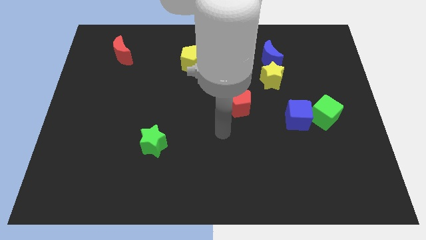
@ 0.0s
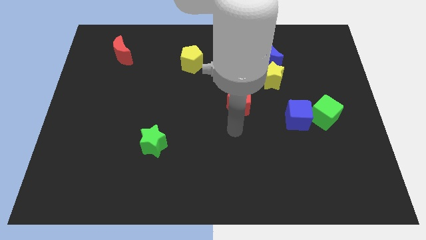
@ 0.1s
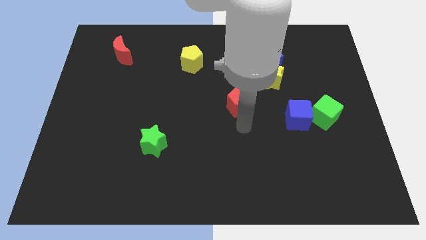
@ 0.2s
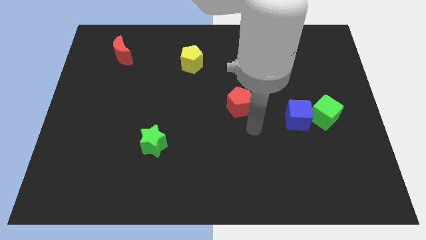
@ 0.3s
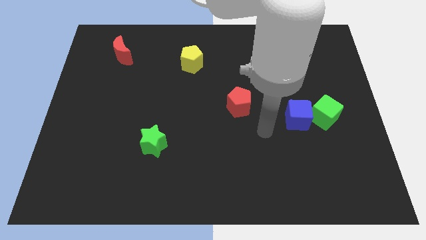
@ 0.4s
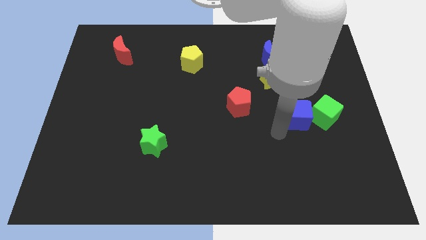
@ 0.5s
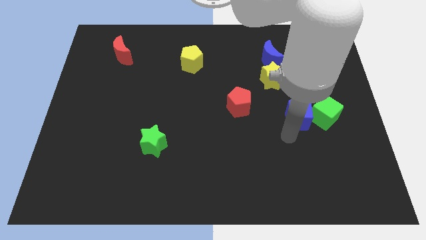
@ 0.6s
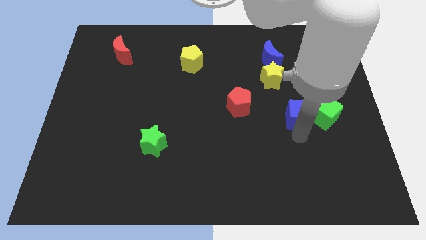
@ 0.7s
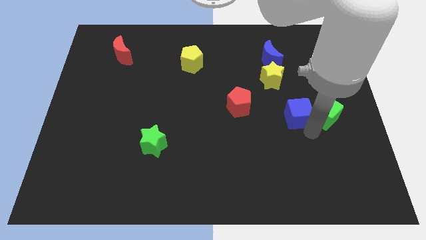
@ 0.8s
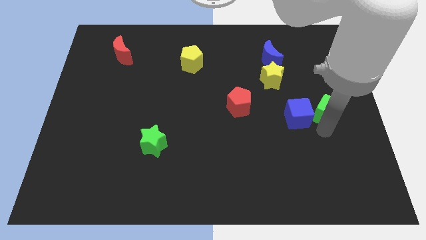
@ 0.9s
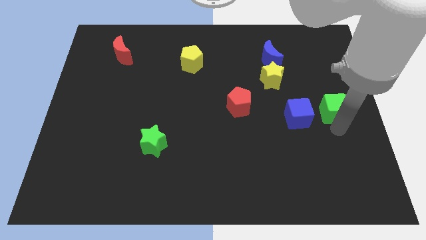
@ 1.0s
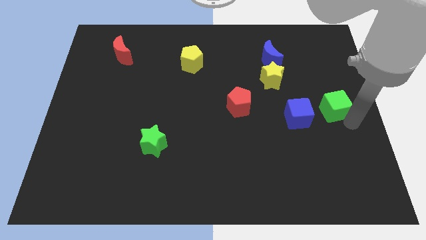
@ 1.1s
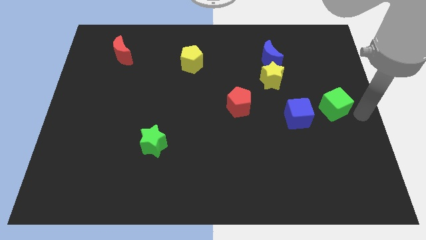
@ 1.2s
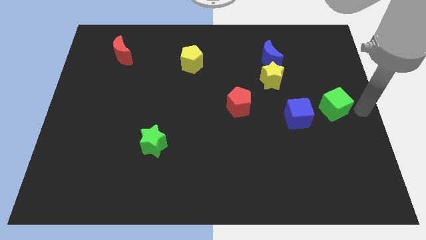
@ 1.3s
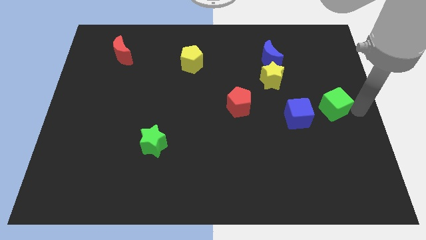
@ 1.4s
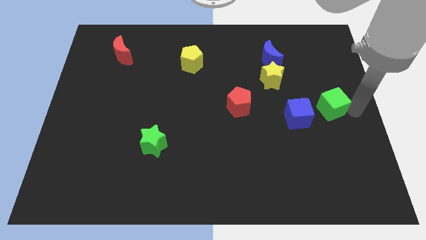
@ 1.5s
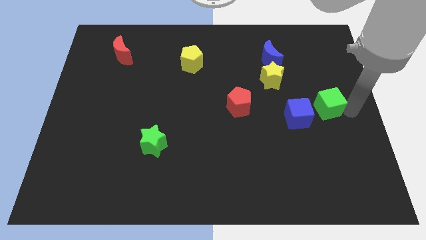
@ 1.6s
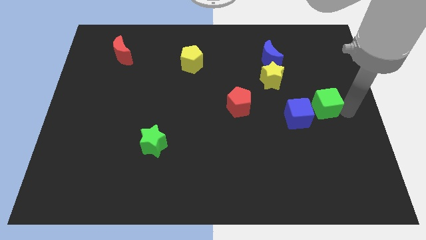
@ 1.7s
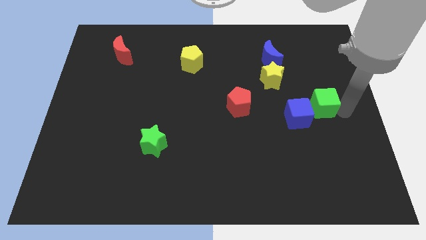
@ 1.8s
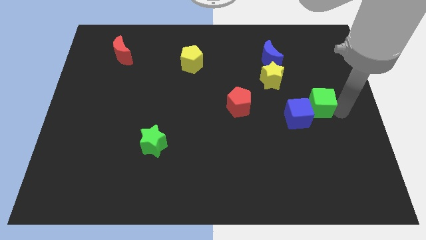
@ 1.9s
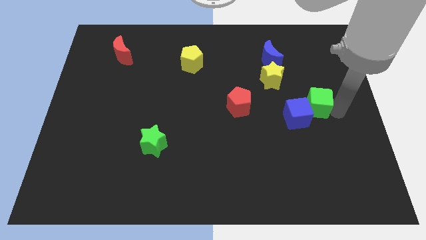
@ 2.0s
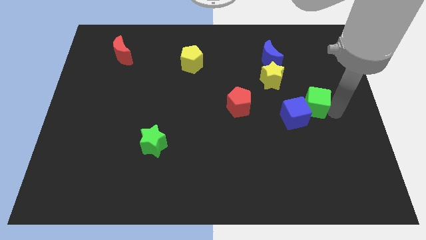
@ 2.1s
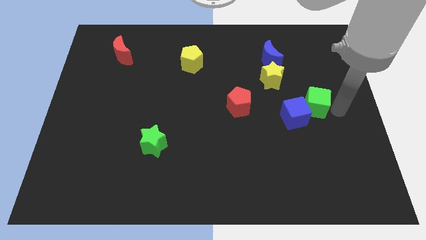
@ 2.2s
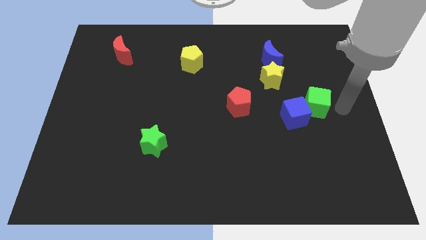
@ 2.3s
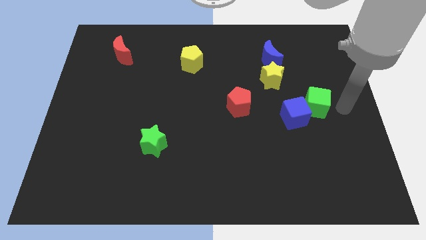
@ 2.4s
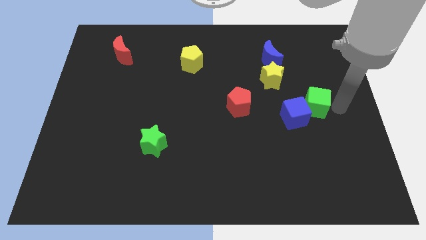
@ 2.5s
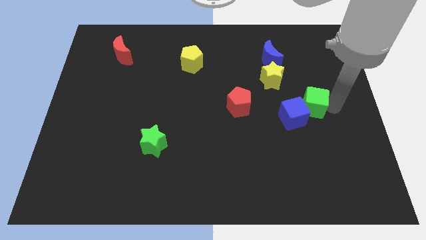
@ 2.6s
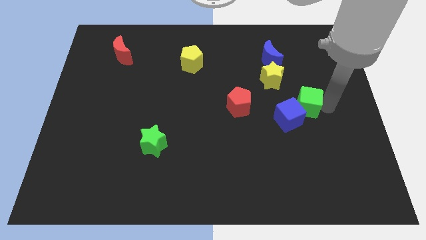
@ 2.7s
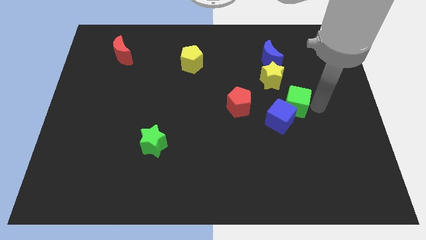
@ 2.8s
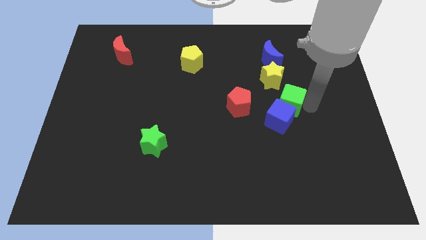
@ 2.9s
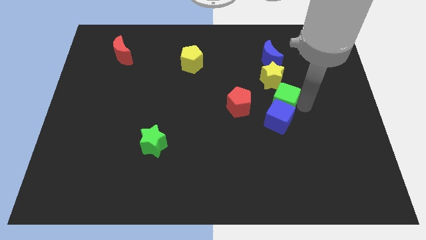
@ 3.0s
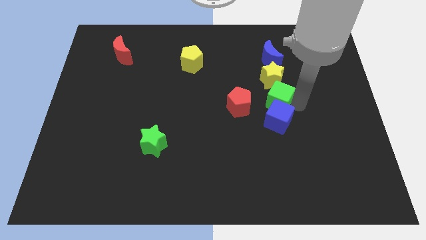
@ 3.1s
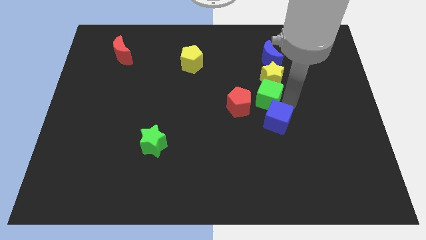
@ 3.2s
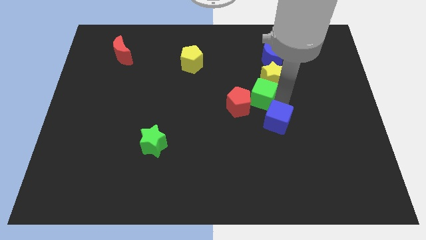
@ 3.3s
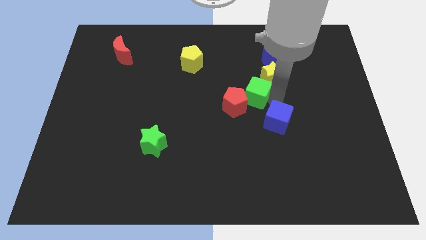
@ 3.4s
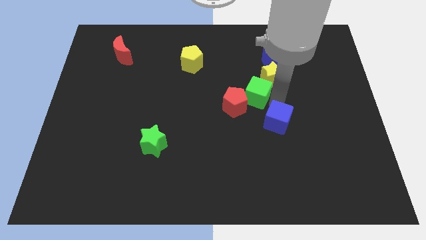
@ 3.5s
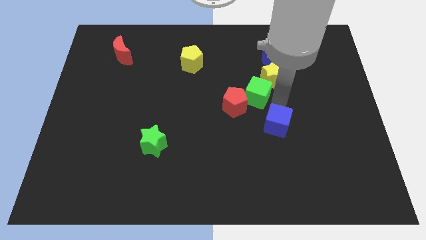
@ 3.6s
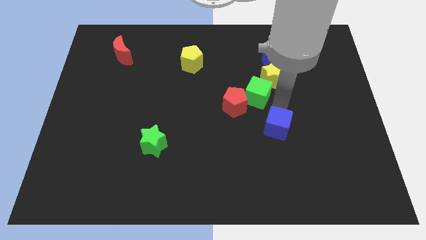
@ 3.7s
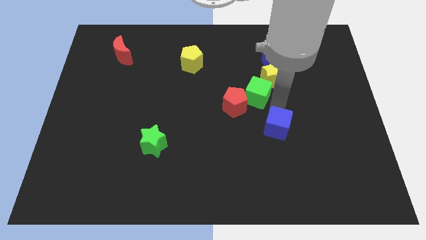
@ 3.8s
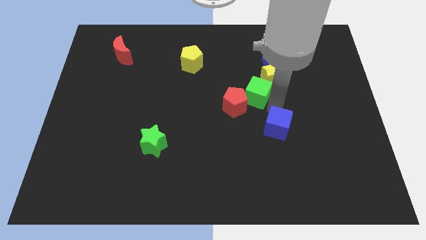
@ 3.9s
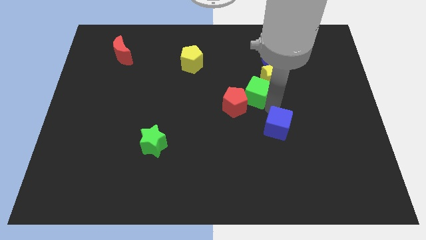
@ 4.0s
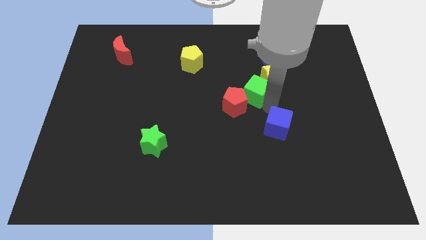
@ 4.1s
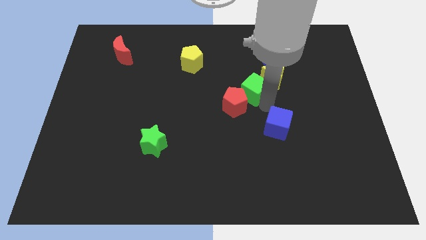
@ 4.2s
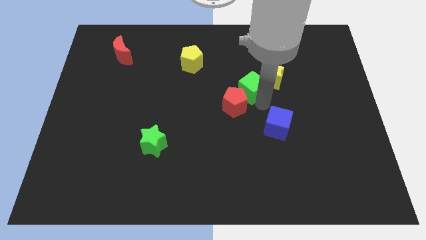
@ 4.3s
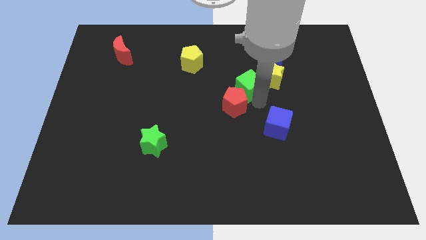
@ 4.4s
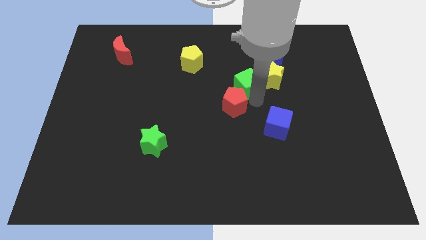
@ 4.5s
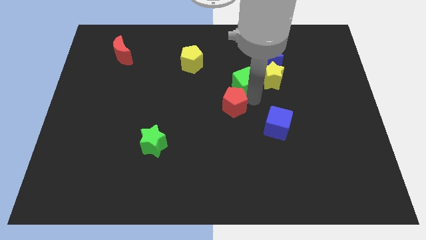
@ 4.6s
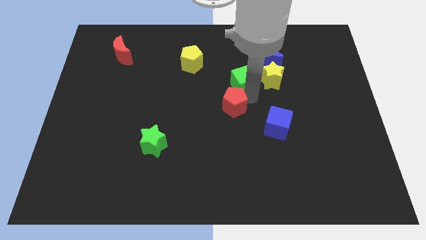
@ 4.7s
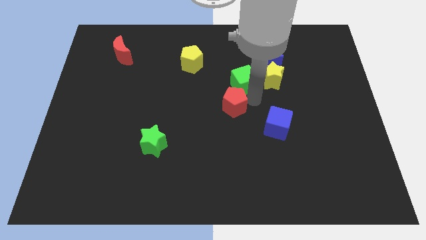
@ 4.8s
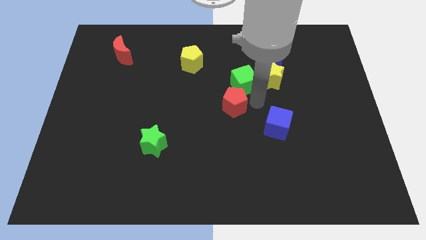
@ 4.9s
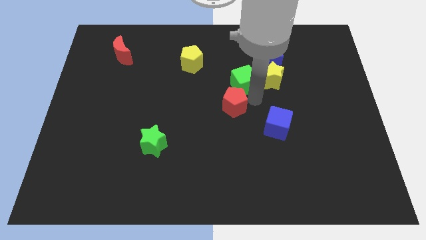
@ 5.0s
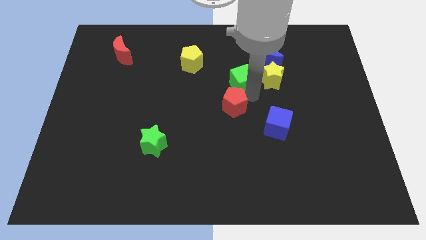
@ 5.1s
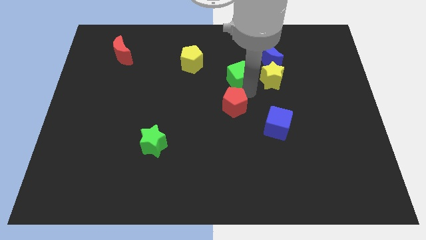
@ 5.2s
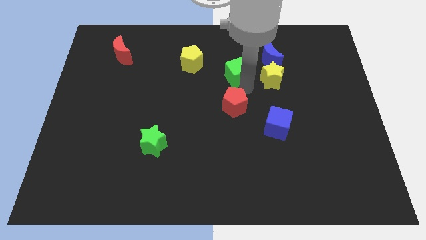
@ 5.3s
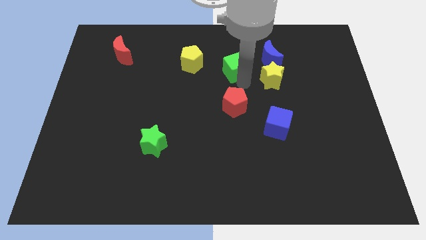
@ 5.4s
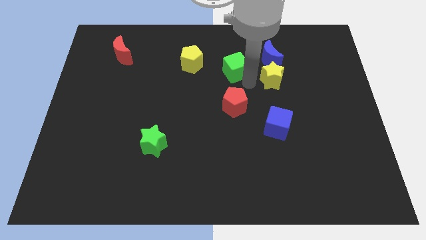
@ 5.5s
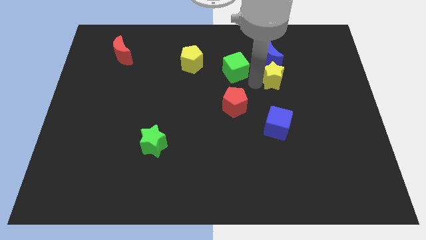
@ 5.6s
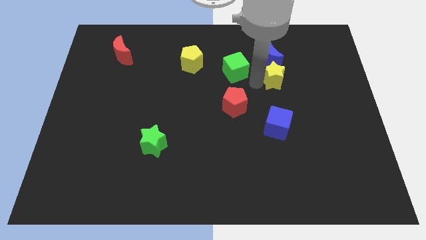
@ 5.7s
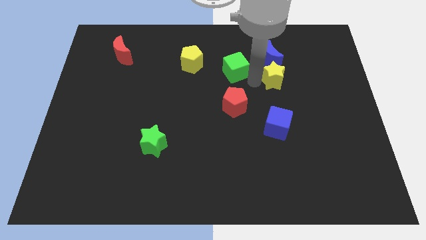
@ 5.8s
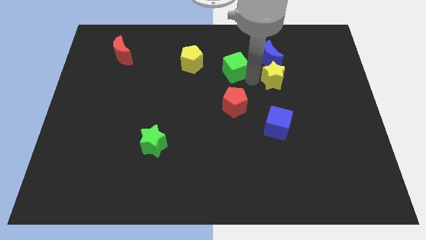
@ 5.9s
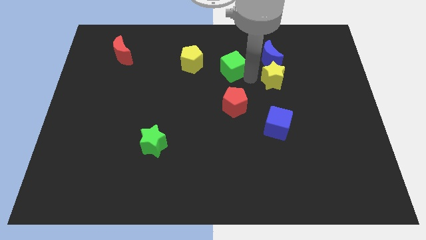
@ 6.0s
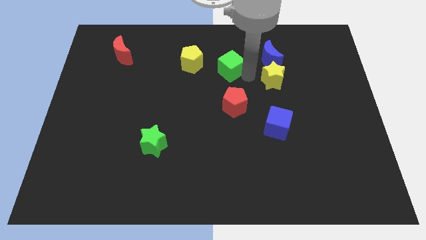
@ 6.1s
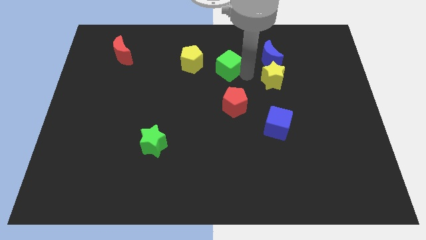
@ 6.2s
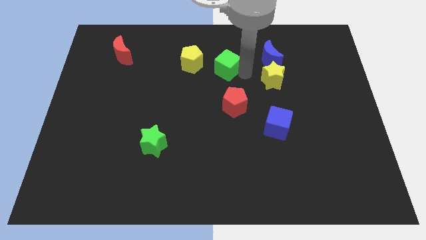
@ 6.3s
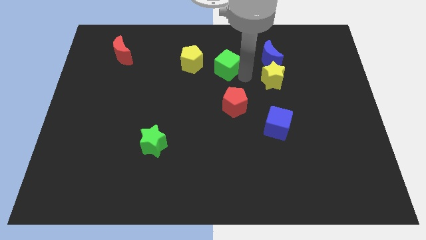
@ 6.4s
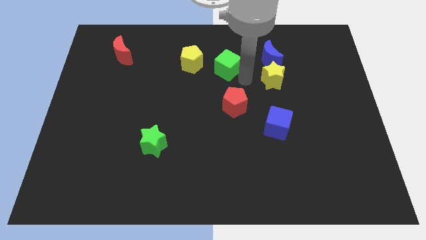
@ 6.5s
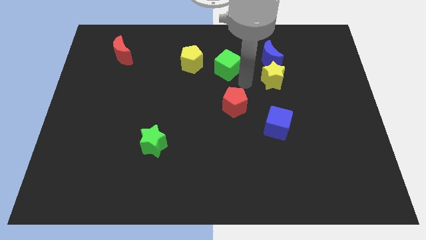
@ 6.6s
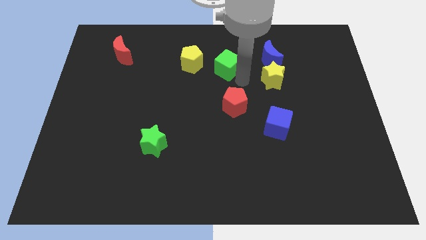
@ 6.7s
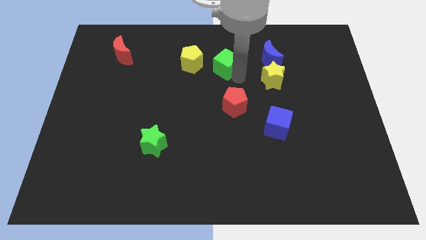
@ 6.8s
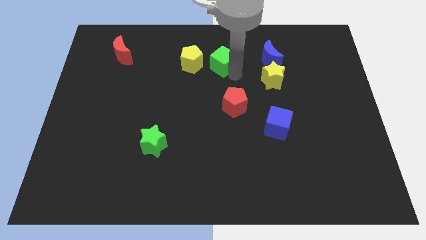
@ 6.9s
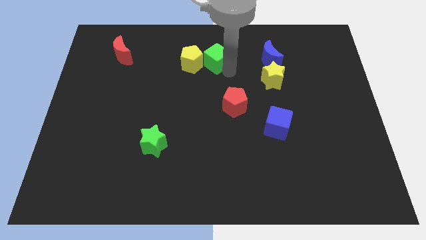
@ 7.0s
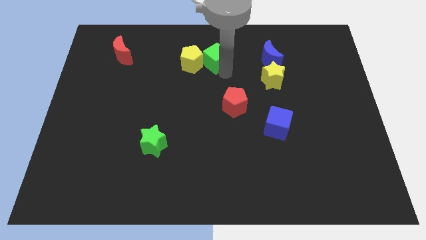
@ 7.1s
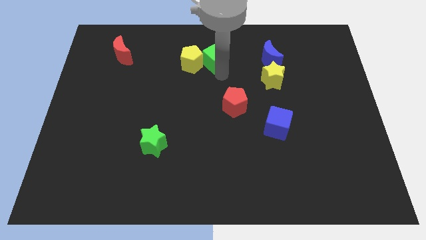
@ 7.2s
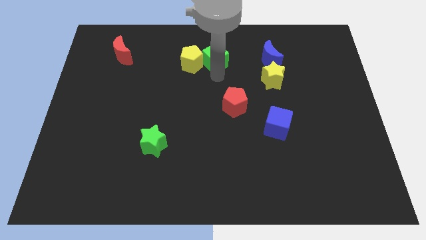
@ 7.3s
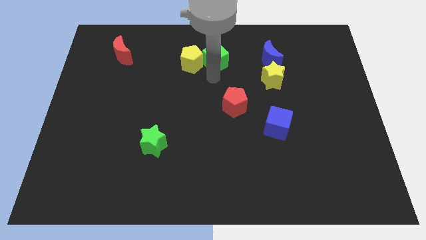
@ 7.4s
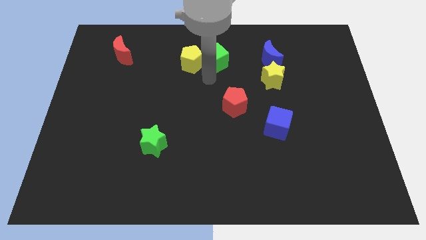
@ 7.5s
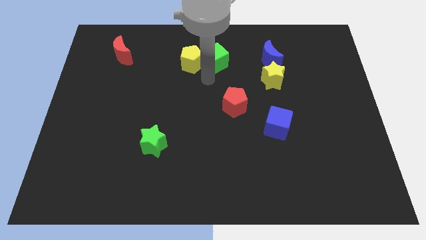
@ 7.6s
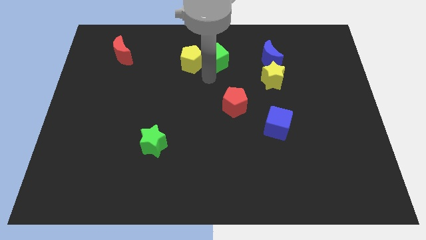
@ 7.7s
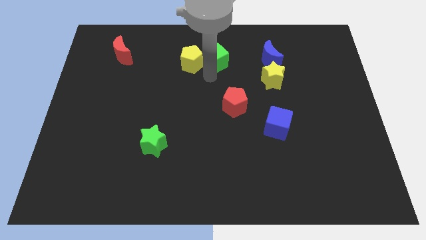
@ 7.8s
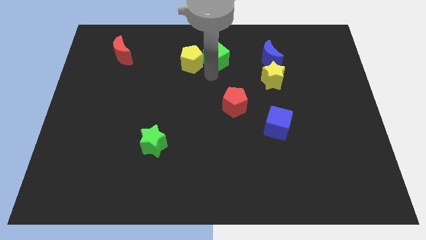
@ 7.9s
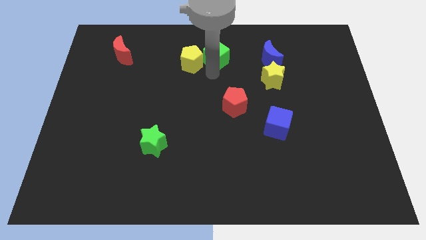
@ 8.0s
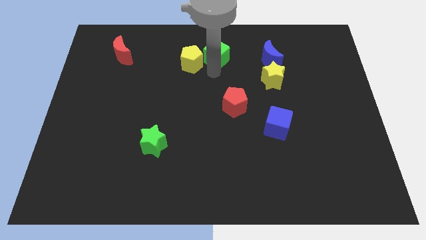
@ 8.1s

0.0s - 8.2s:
push the green cube to the top
